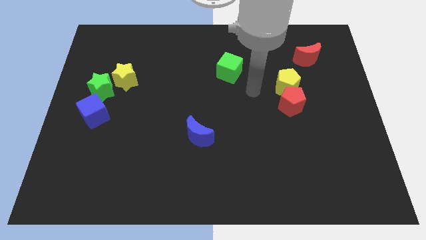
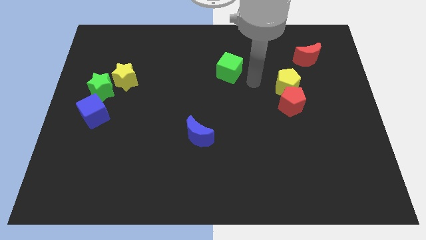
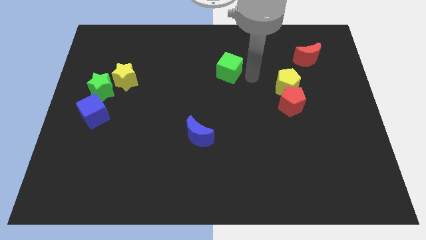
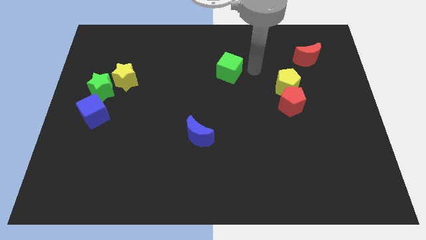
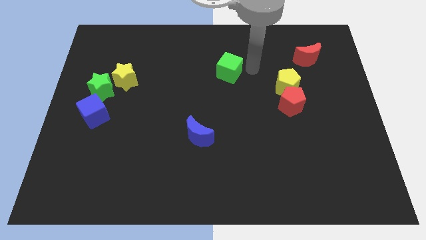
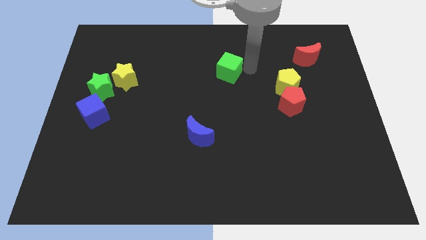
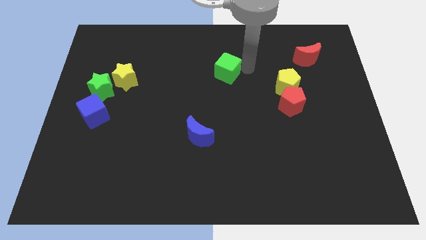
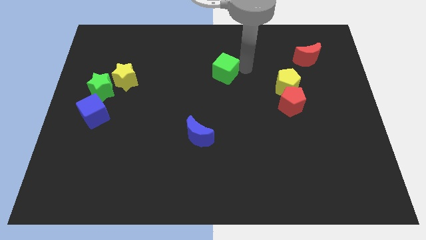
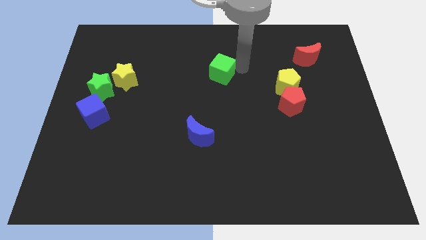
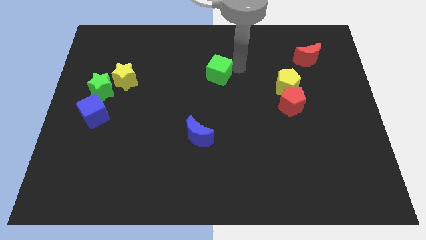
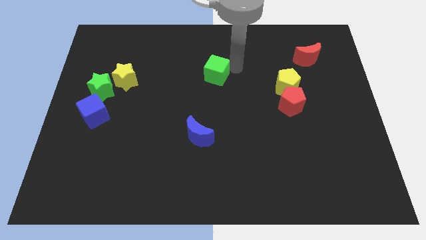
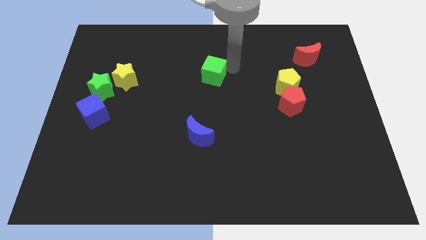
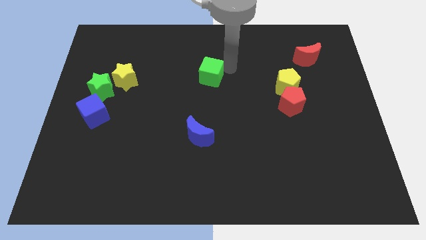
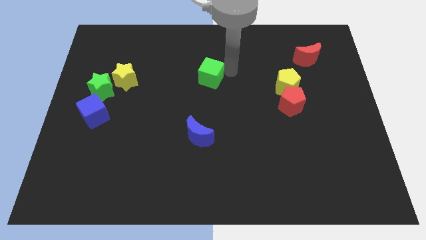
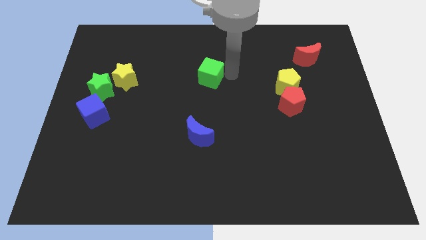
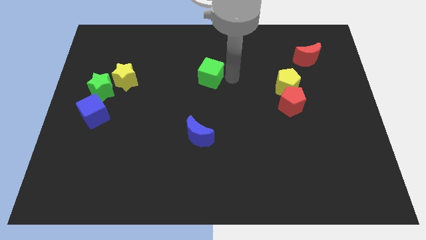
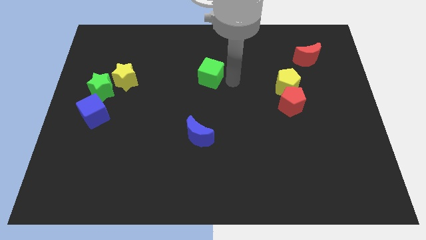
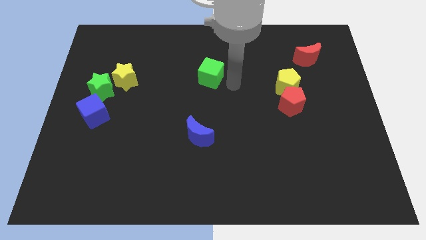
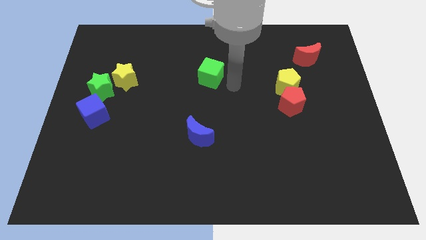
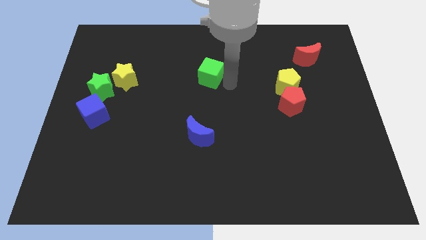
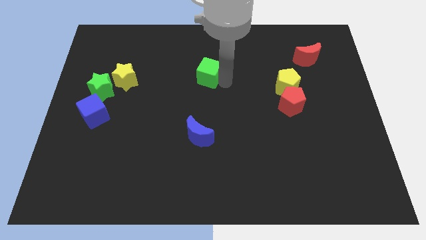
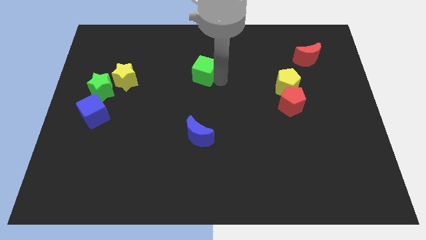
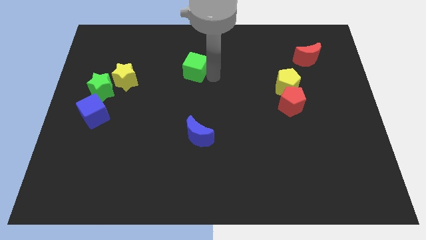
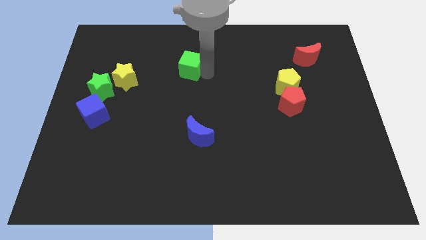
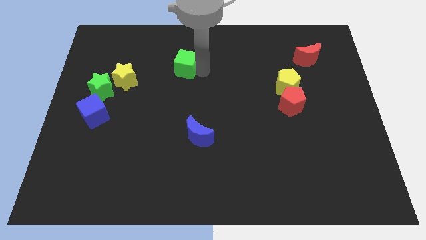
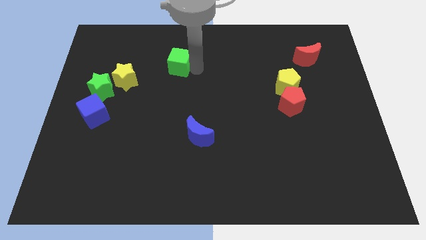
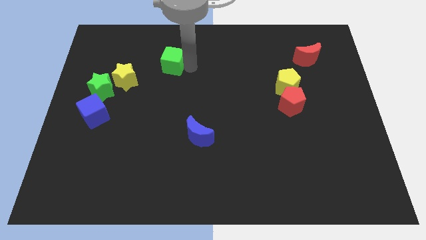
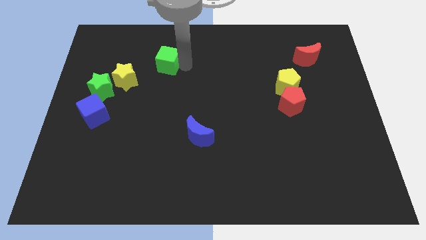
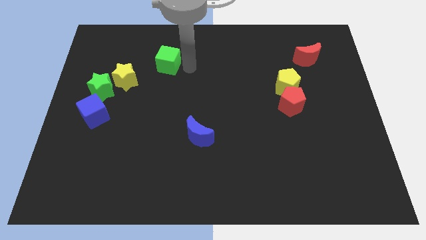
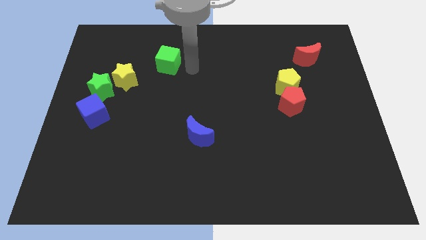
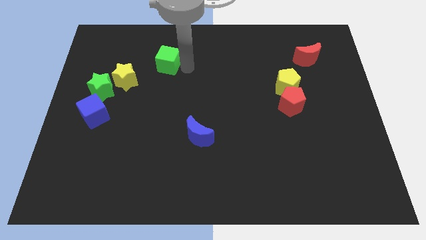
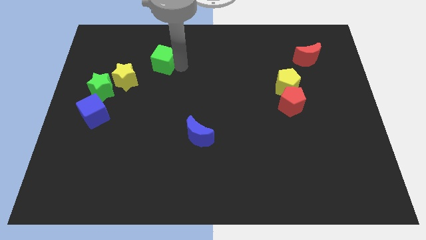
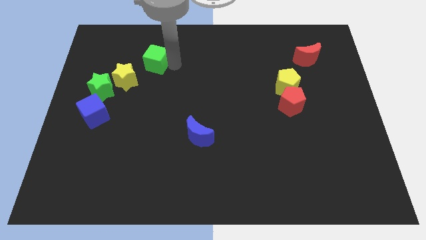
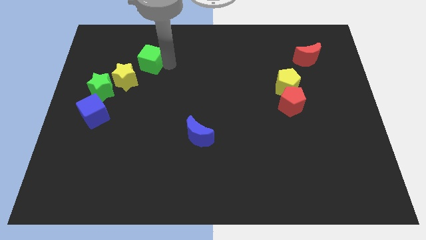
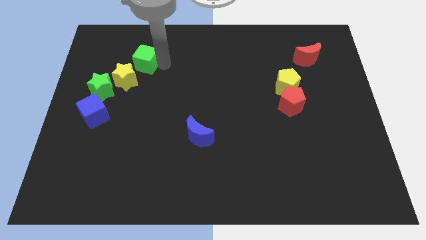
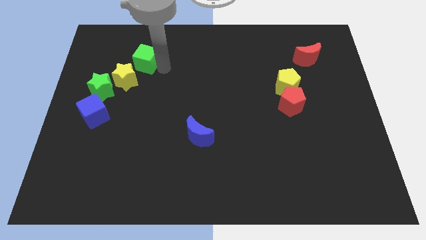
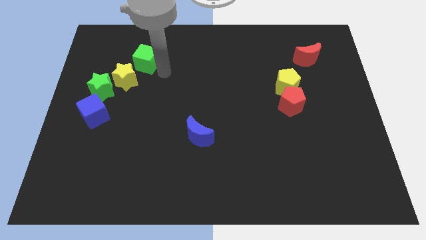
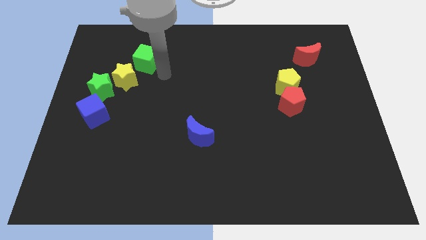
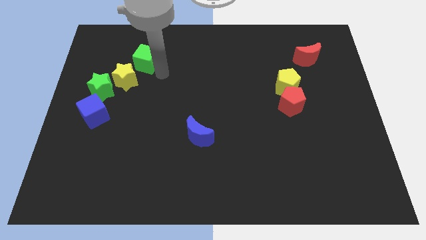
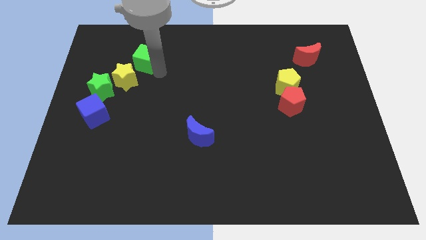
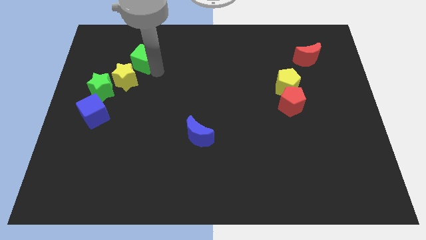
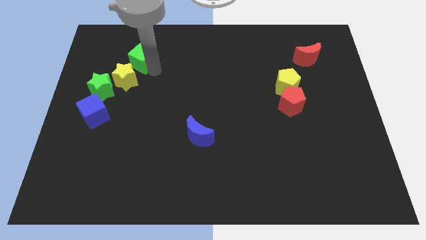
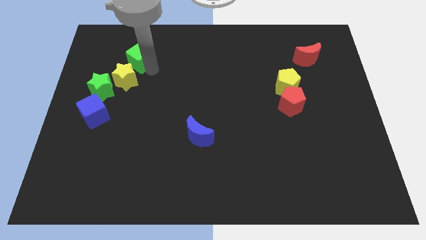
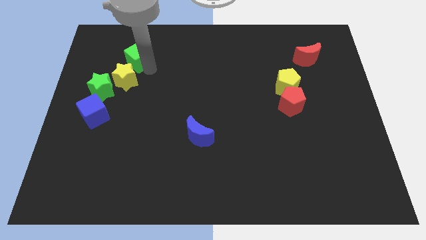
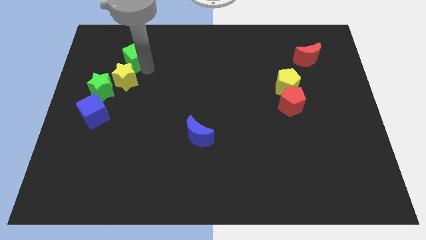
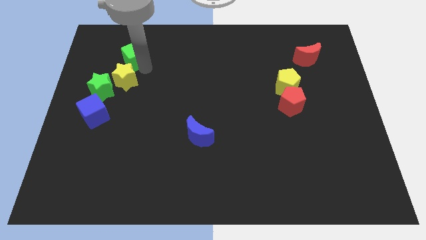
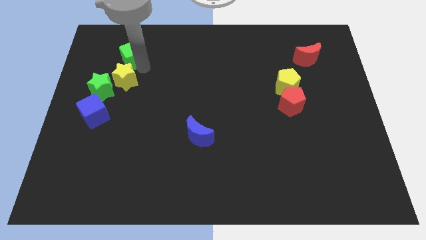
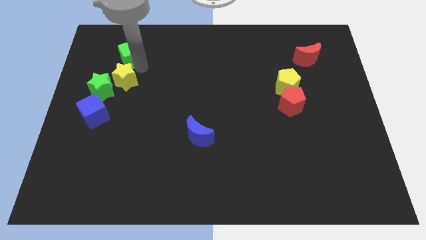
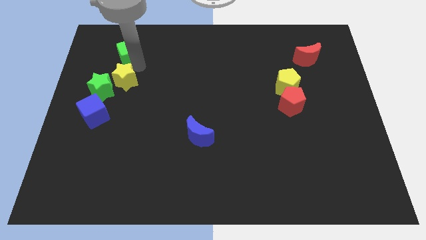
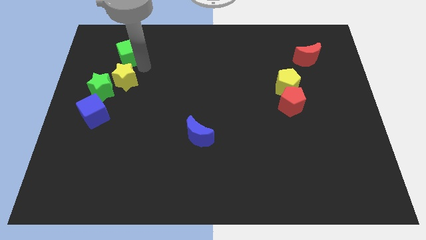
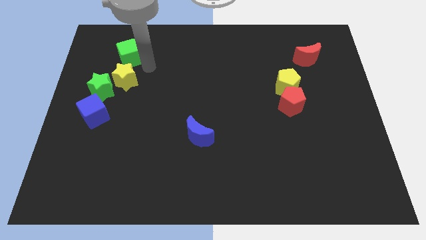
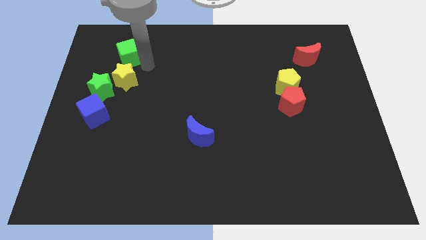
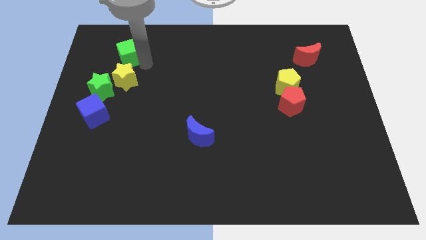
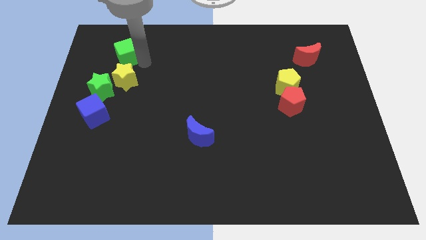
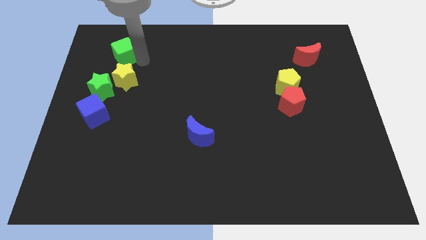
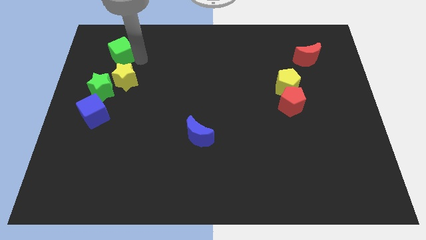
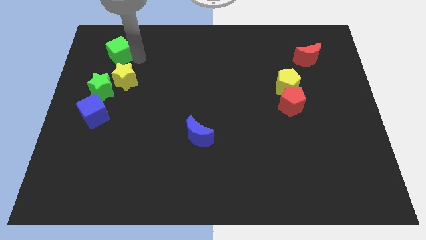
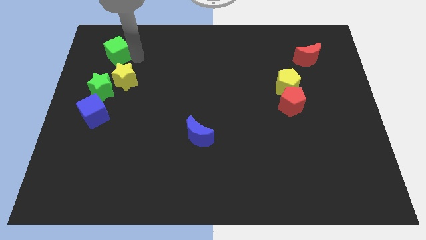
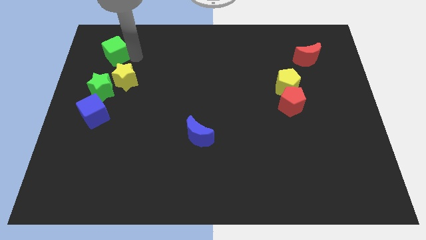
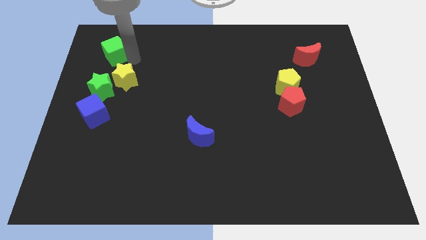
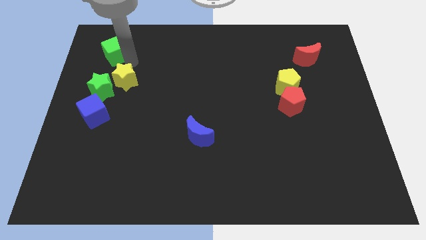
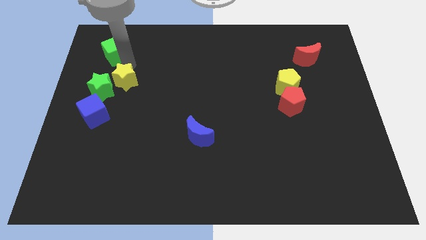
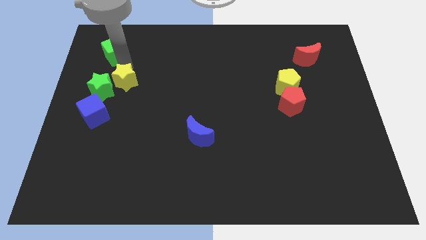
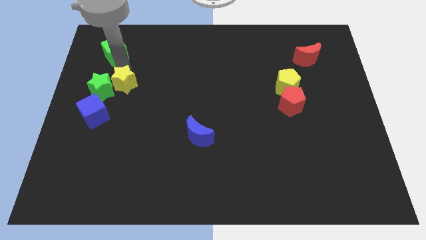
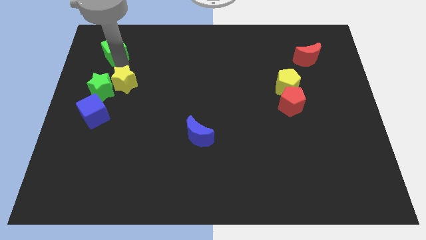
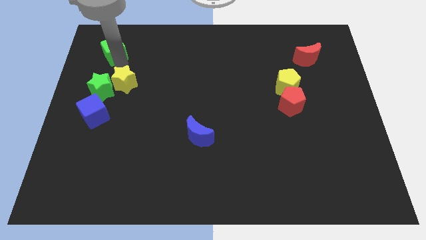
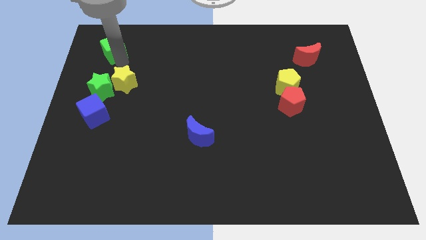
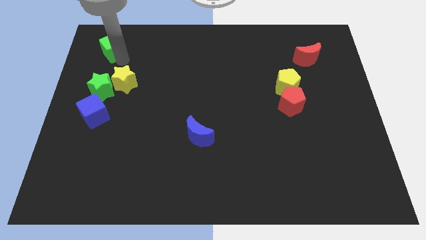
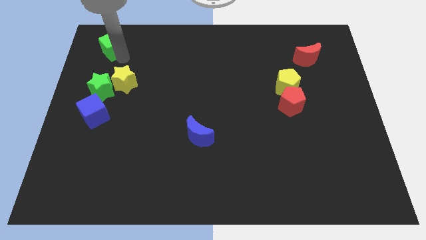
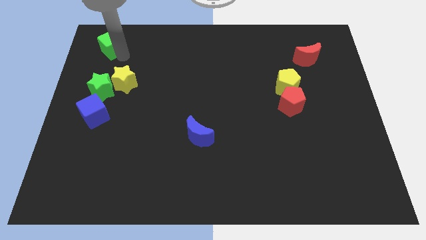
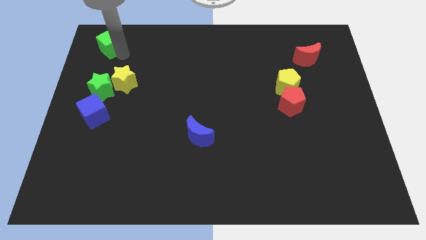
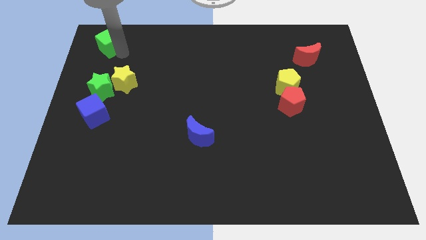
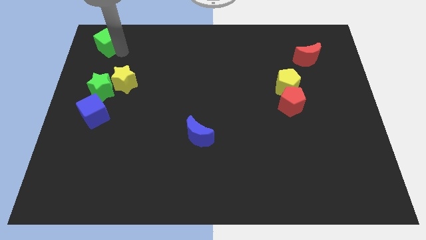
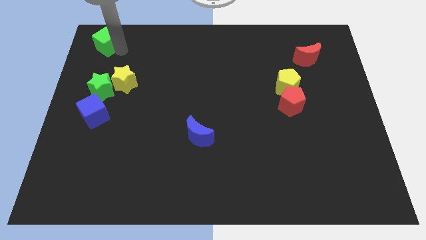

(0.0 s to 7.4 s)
move the green cube to the top left
